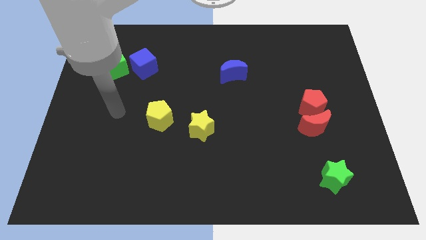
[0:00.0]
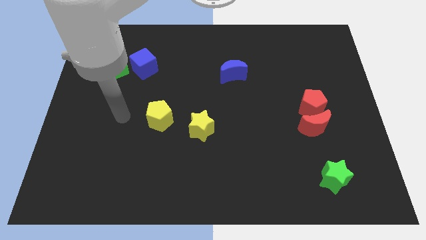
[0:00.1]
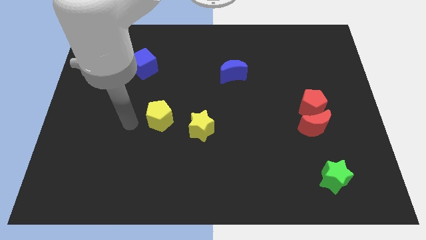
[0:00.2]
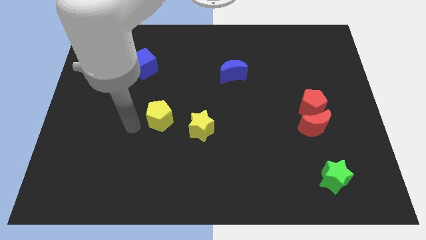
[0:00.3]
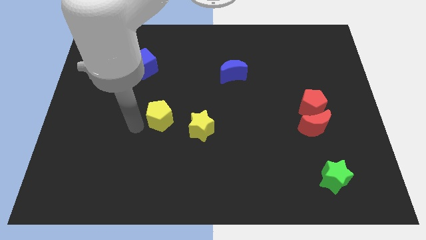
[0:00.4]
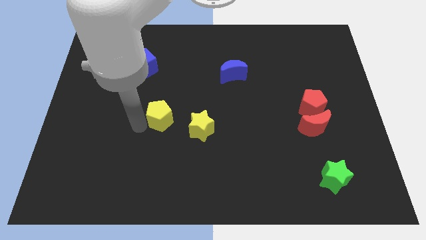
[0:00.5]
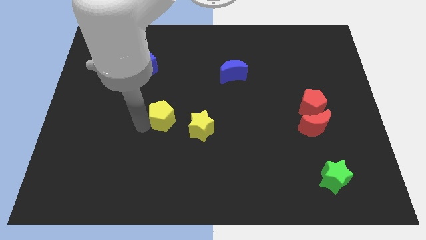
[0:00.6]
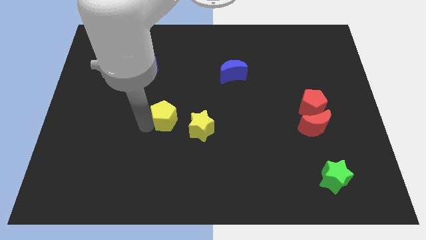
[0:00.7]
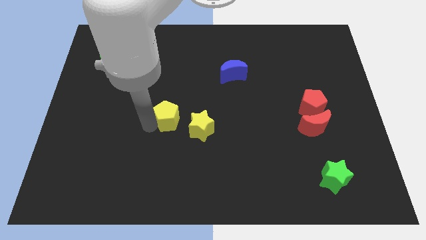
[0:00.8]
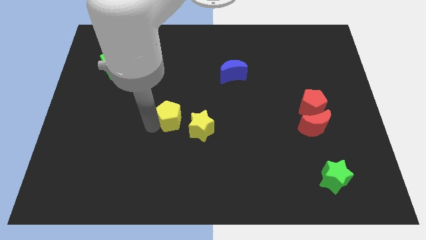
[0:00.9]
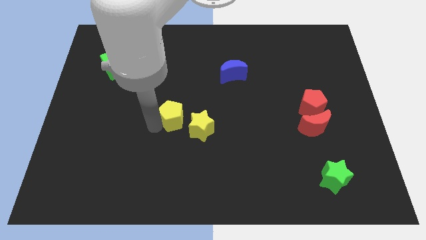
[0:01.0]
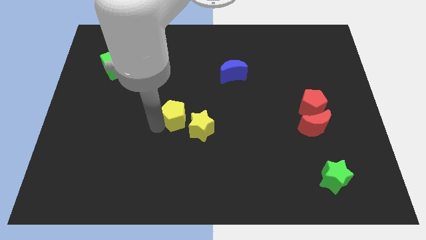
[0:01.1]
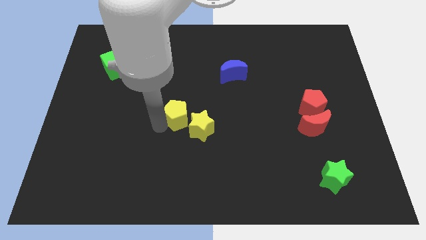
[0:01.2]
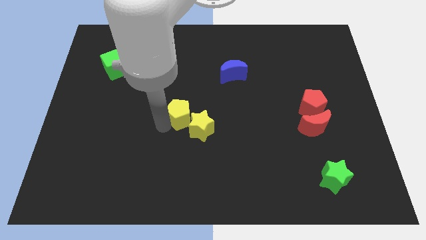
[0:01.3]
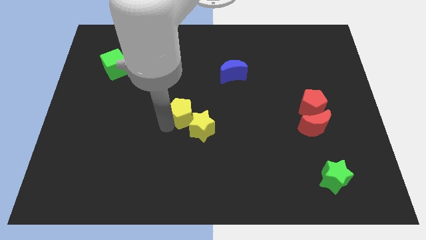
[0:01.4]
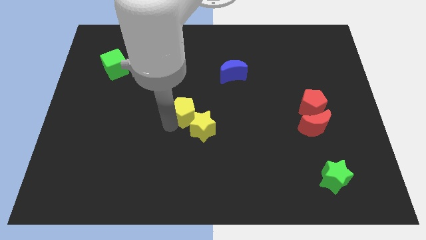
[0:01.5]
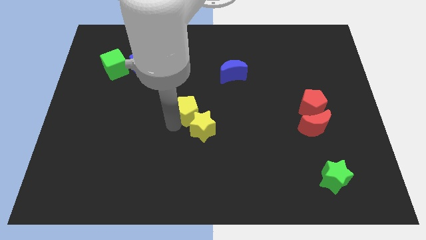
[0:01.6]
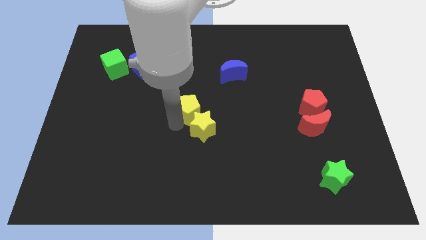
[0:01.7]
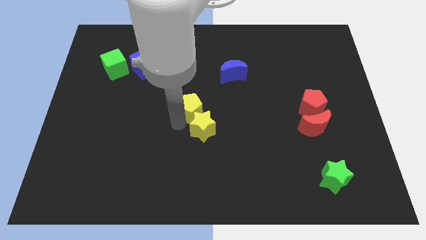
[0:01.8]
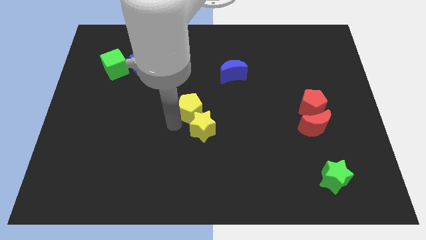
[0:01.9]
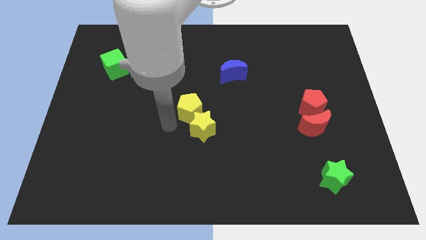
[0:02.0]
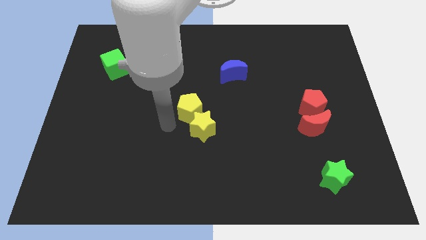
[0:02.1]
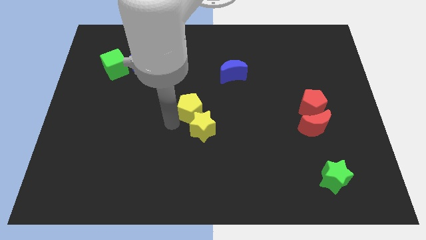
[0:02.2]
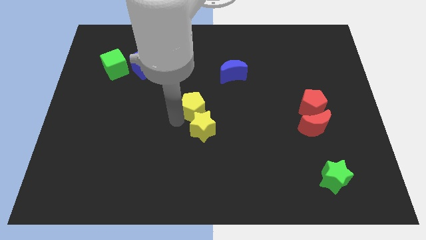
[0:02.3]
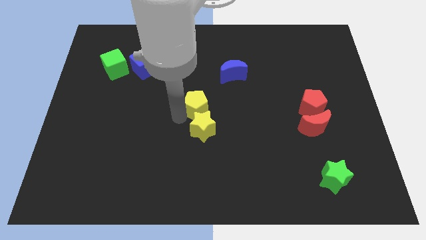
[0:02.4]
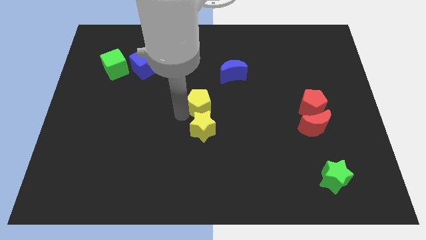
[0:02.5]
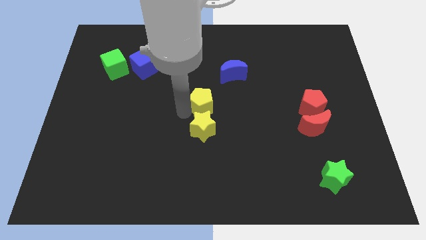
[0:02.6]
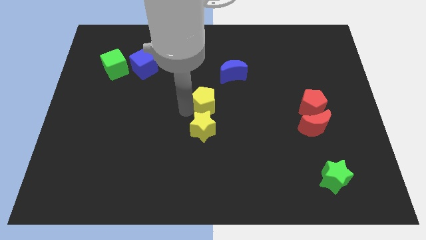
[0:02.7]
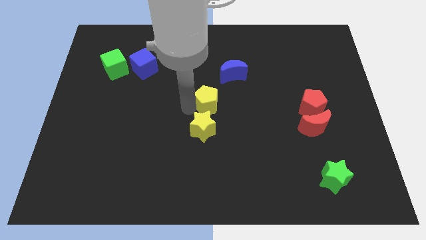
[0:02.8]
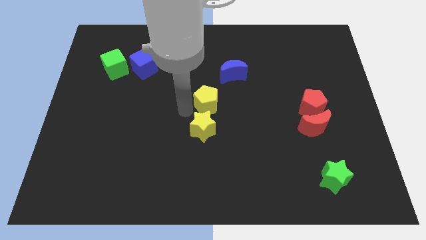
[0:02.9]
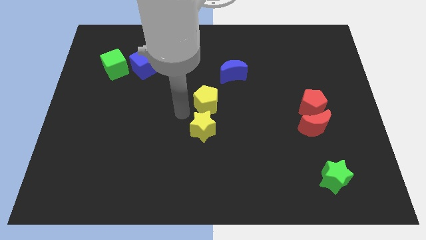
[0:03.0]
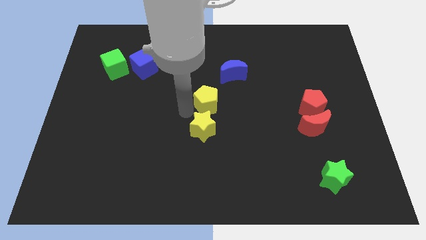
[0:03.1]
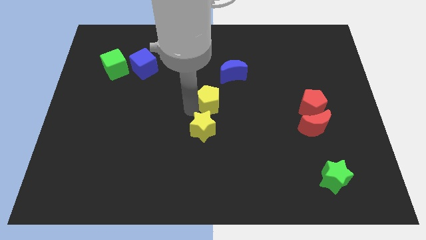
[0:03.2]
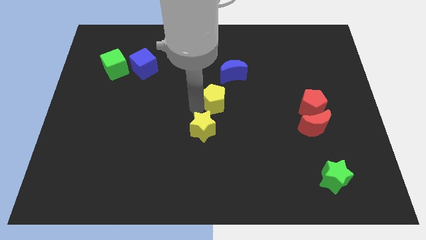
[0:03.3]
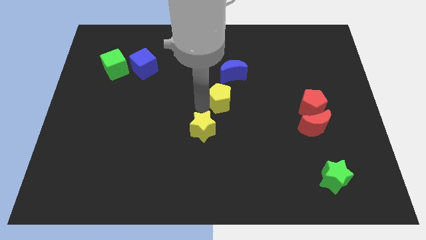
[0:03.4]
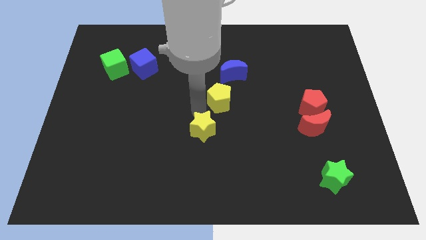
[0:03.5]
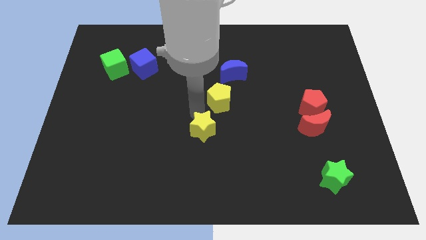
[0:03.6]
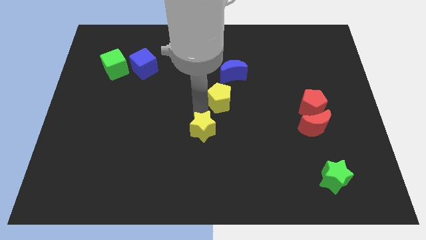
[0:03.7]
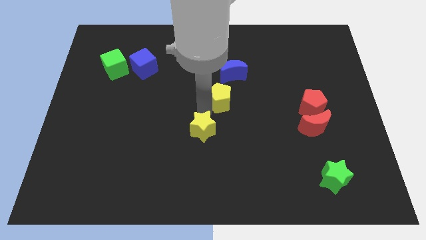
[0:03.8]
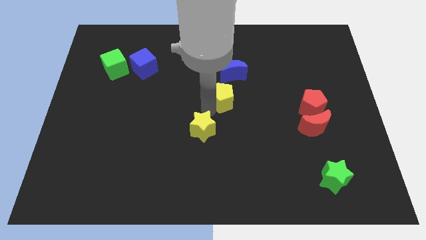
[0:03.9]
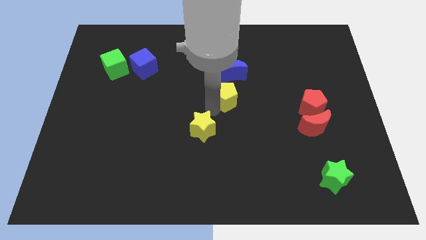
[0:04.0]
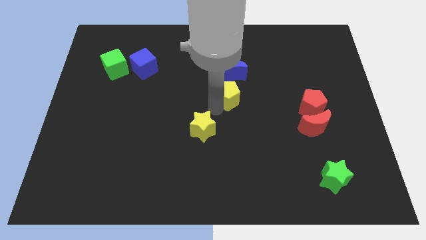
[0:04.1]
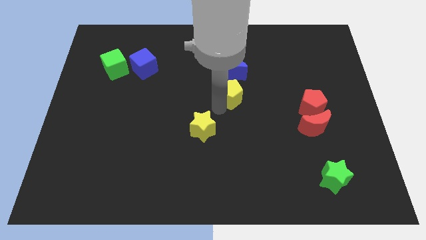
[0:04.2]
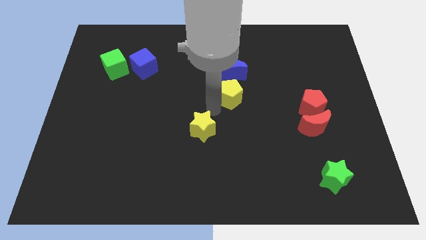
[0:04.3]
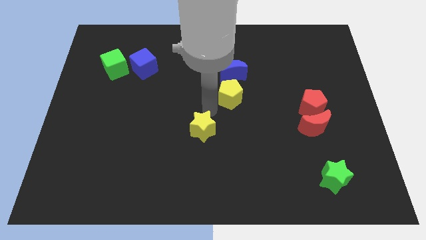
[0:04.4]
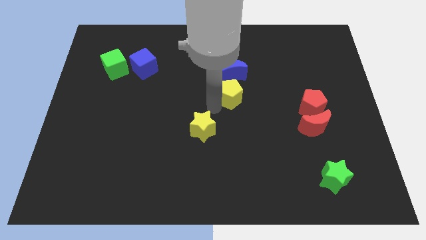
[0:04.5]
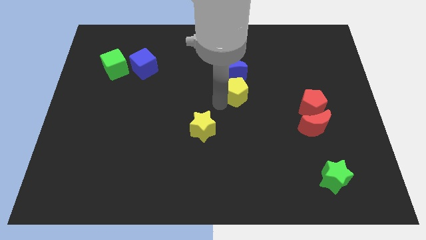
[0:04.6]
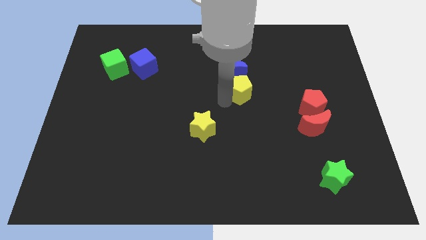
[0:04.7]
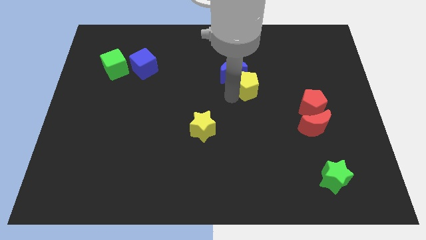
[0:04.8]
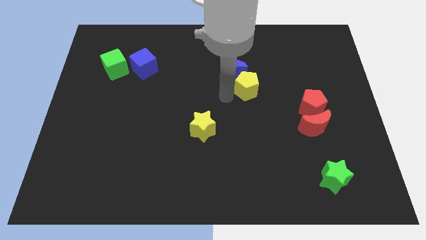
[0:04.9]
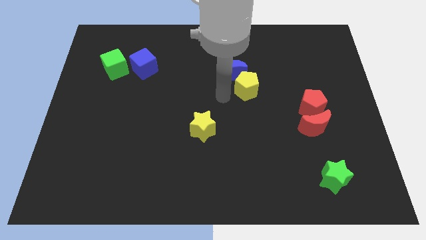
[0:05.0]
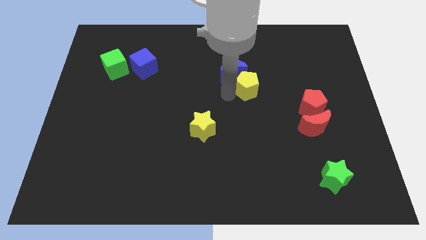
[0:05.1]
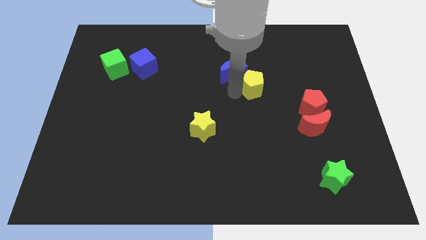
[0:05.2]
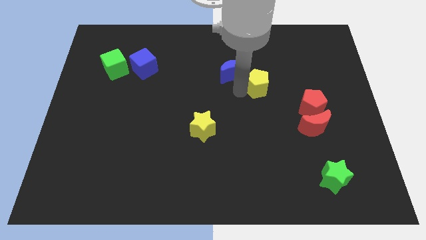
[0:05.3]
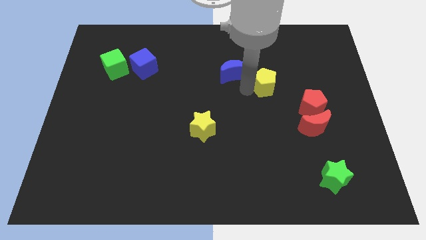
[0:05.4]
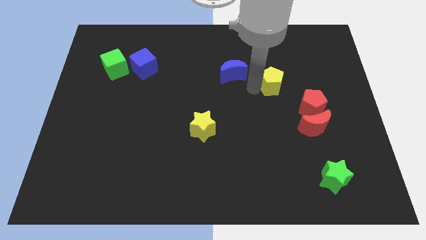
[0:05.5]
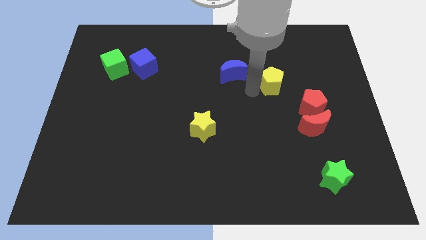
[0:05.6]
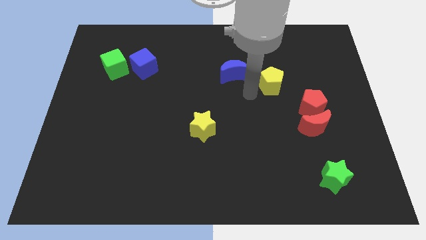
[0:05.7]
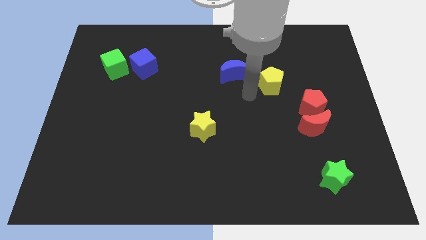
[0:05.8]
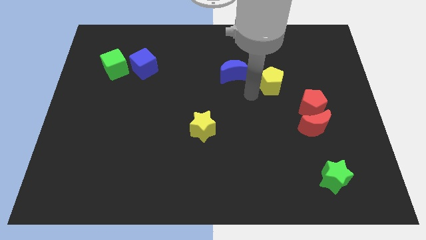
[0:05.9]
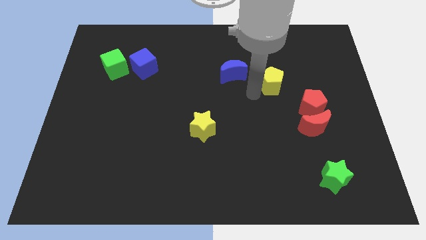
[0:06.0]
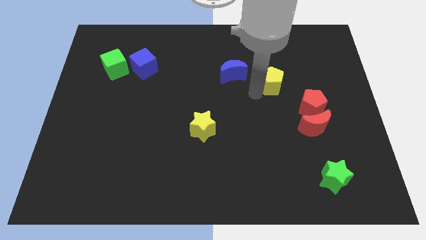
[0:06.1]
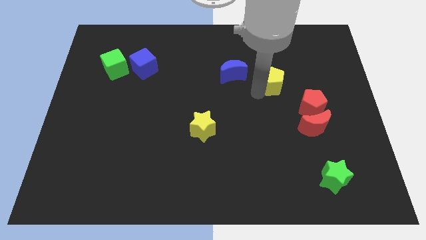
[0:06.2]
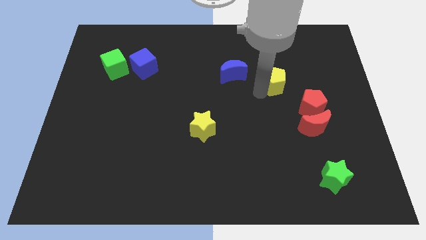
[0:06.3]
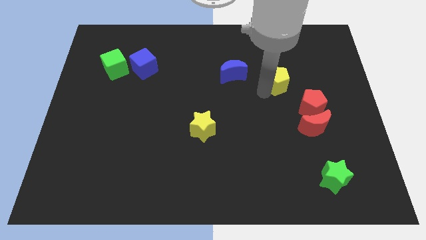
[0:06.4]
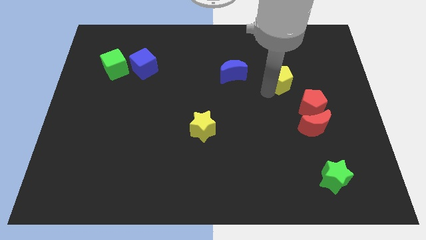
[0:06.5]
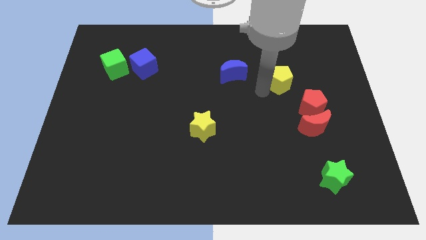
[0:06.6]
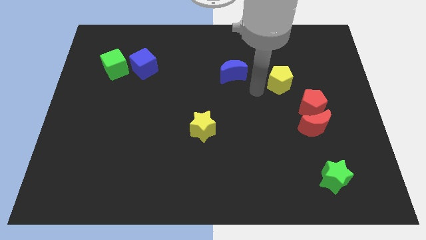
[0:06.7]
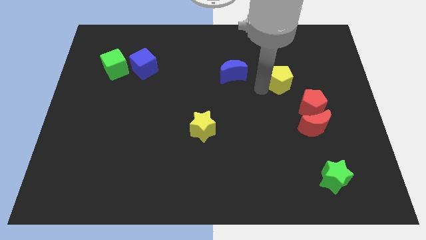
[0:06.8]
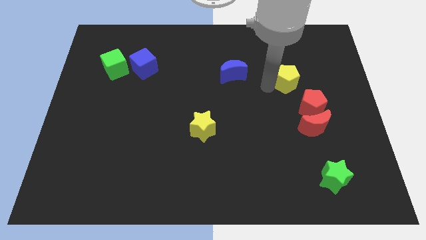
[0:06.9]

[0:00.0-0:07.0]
push the yellow pentagon above the red pentagon
